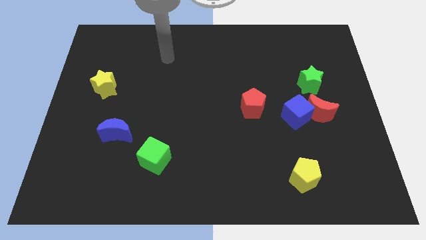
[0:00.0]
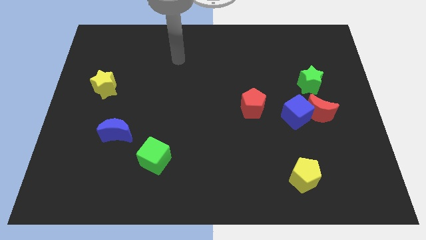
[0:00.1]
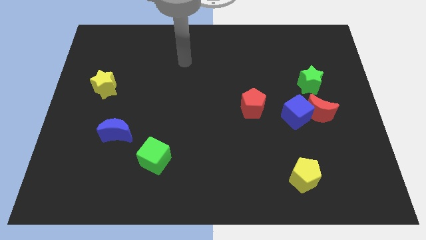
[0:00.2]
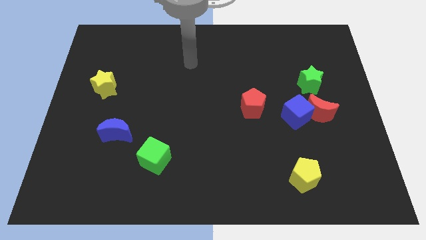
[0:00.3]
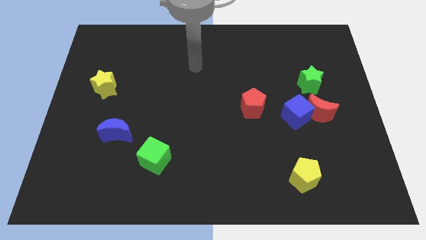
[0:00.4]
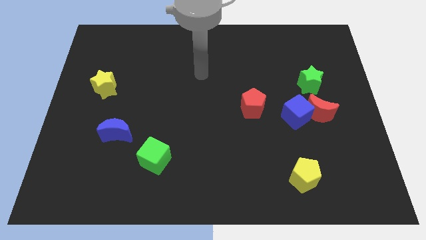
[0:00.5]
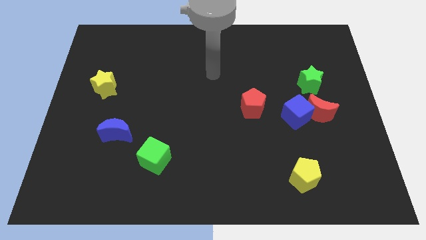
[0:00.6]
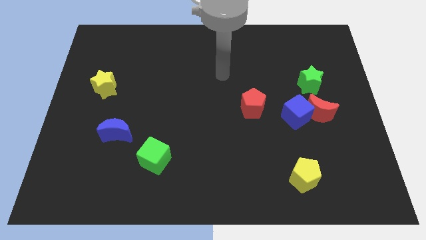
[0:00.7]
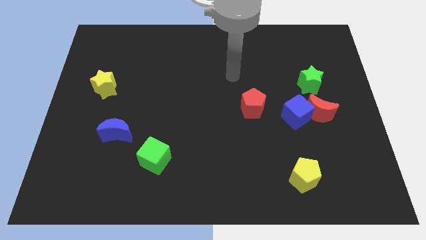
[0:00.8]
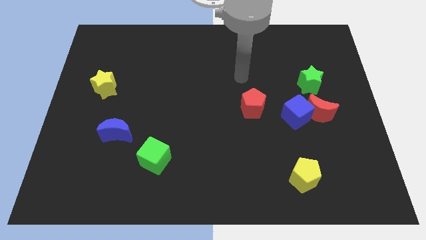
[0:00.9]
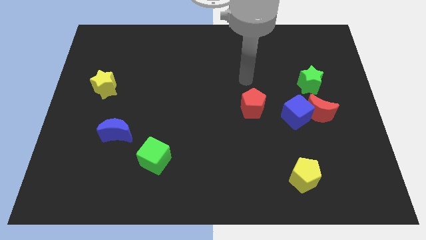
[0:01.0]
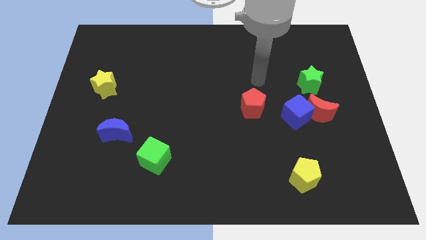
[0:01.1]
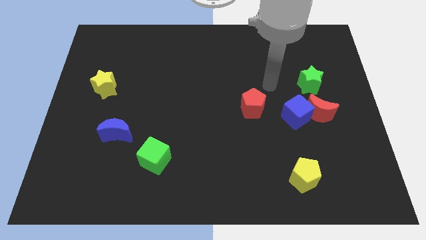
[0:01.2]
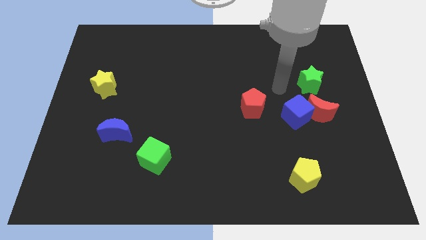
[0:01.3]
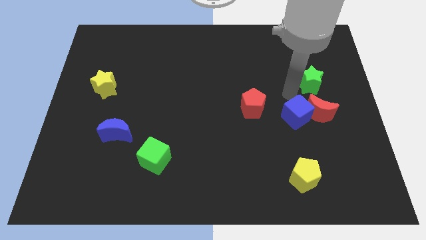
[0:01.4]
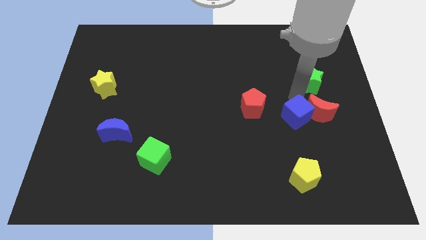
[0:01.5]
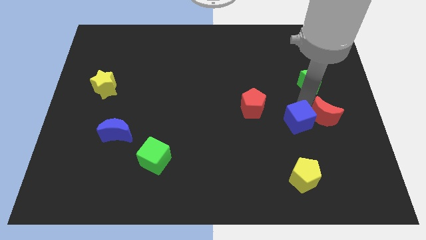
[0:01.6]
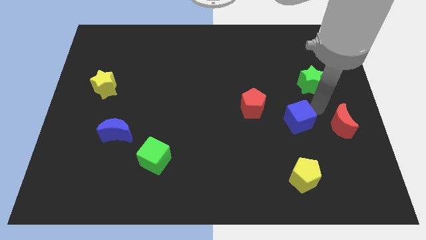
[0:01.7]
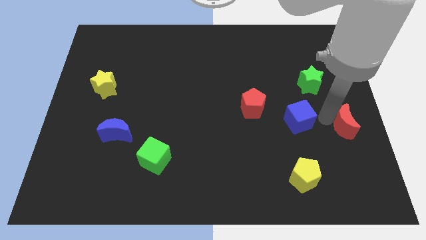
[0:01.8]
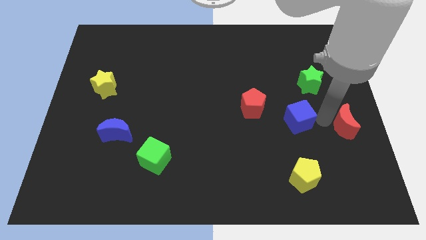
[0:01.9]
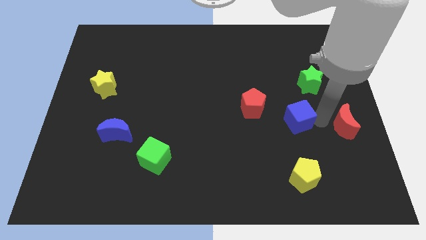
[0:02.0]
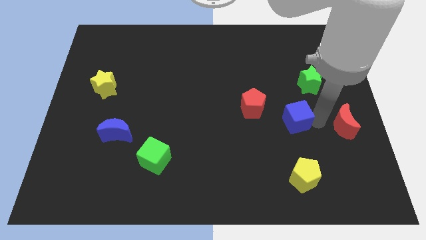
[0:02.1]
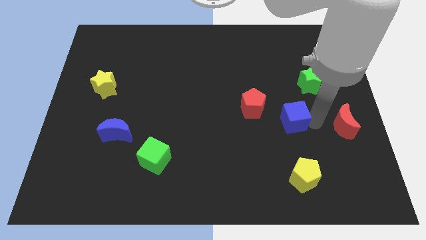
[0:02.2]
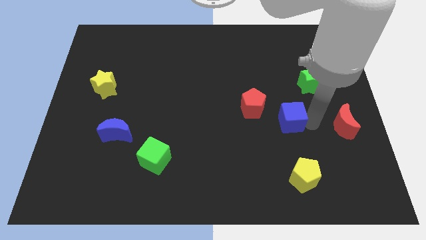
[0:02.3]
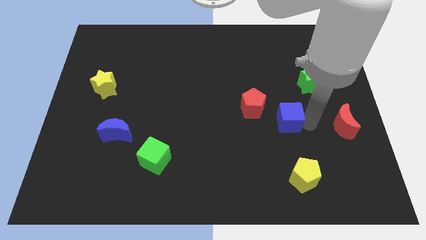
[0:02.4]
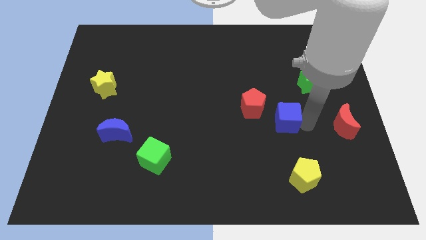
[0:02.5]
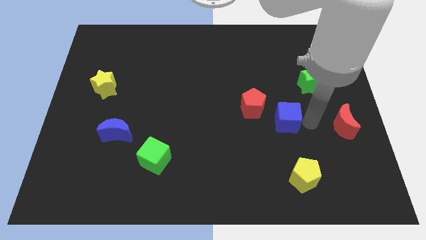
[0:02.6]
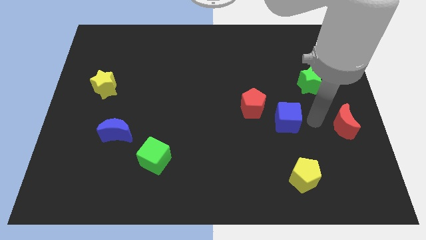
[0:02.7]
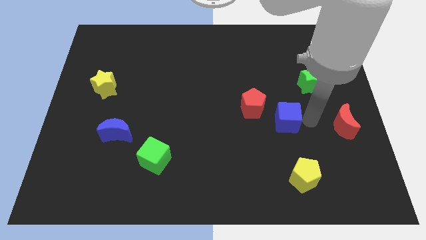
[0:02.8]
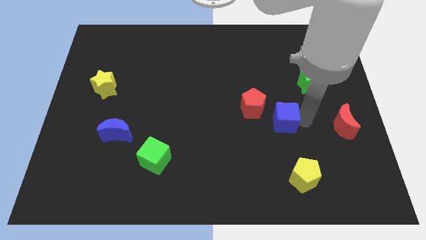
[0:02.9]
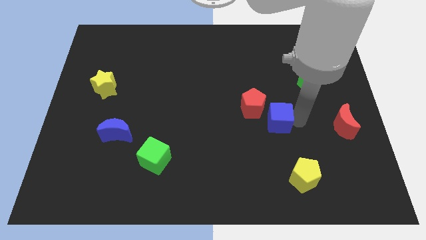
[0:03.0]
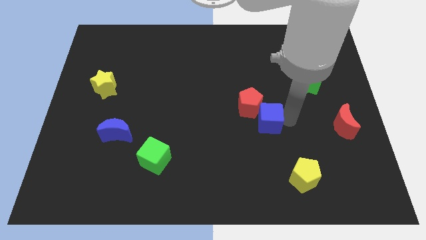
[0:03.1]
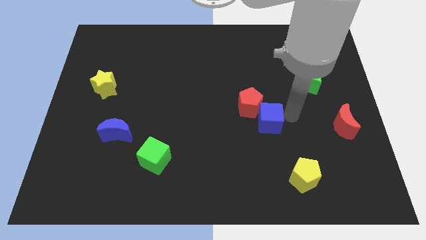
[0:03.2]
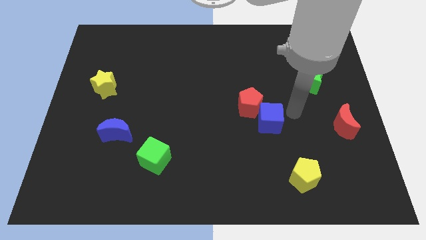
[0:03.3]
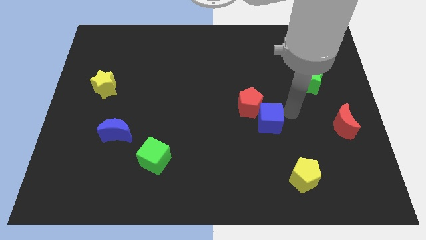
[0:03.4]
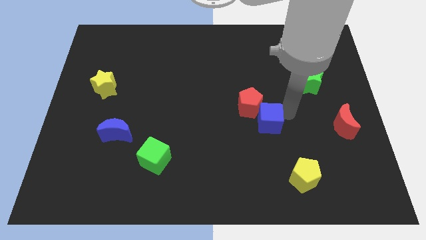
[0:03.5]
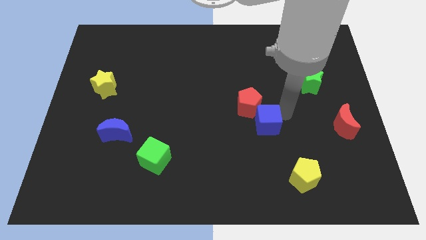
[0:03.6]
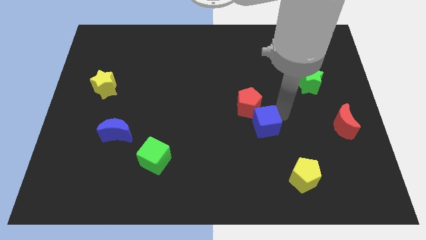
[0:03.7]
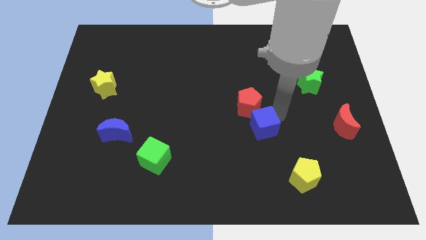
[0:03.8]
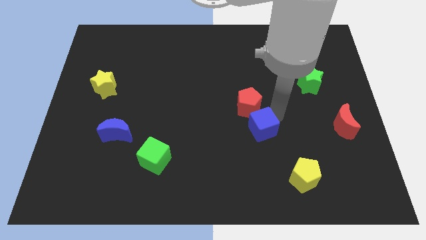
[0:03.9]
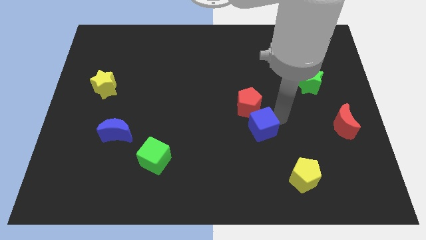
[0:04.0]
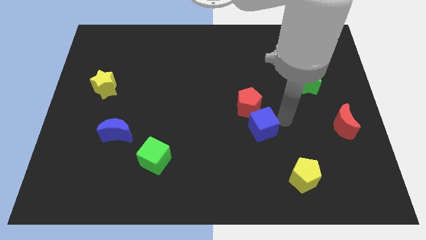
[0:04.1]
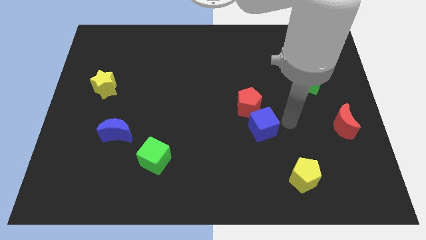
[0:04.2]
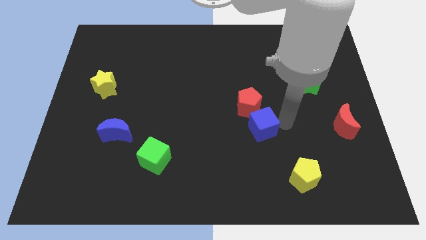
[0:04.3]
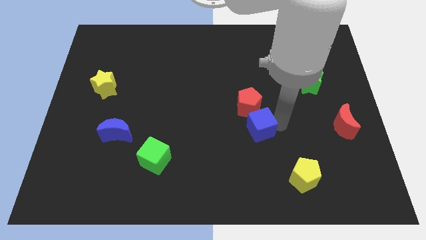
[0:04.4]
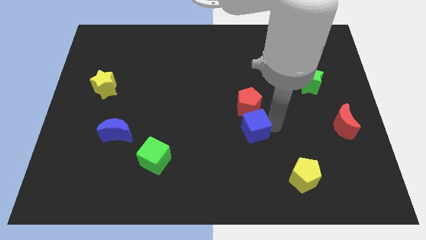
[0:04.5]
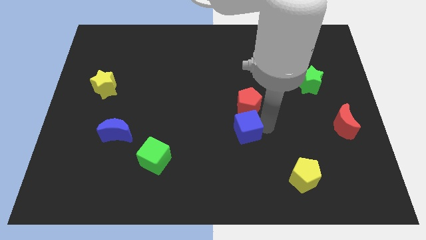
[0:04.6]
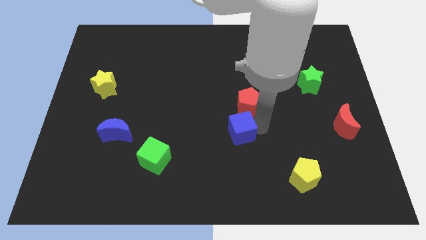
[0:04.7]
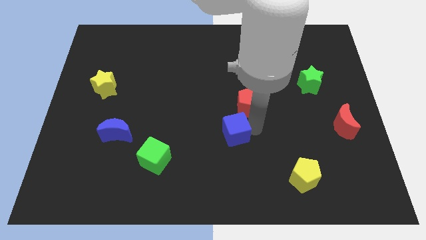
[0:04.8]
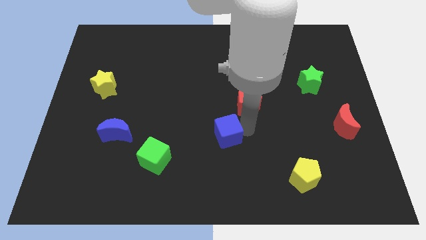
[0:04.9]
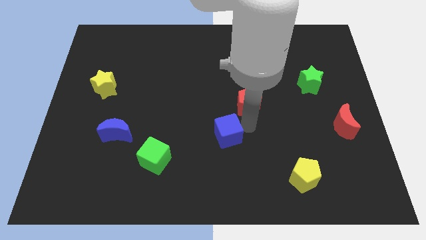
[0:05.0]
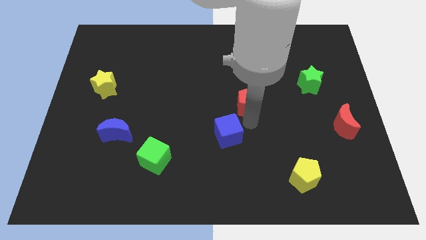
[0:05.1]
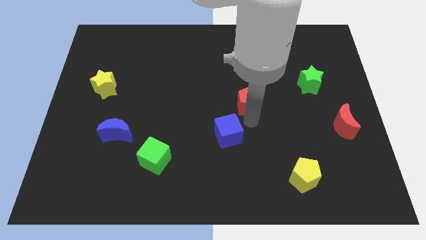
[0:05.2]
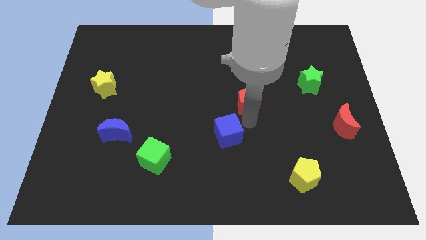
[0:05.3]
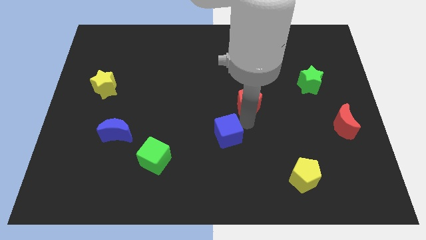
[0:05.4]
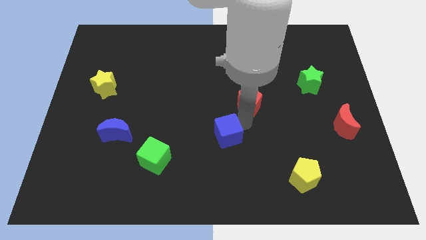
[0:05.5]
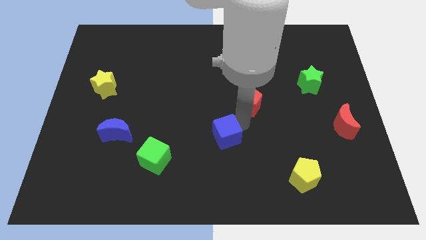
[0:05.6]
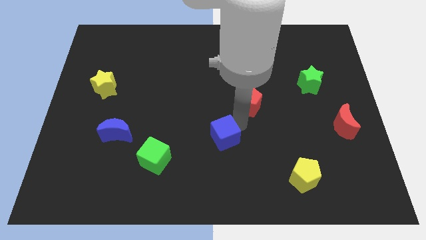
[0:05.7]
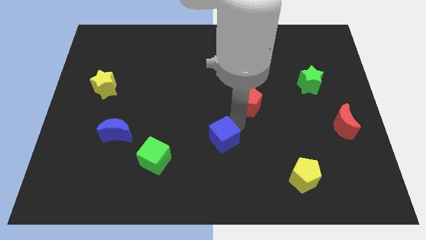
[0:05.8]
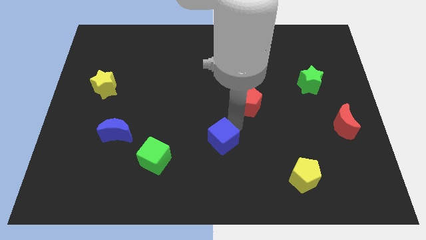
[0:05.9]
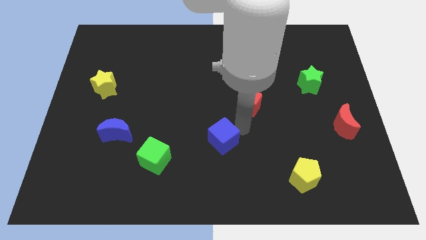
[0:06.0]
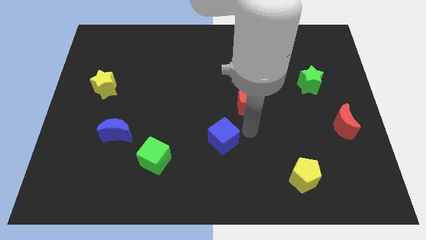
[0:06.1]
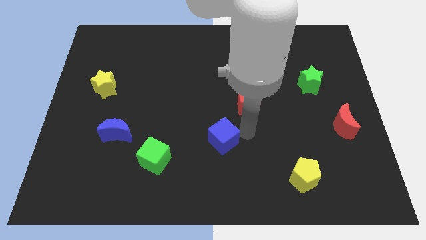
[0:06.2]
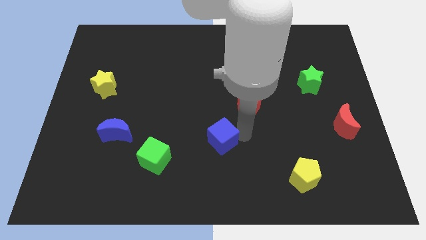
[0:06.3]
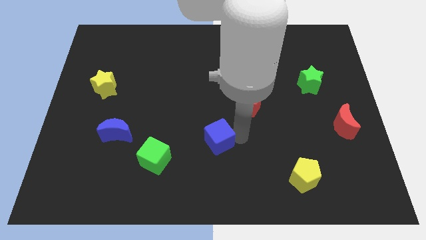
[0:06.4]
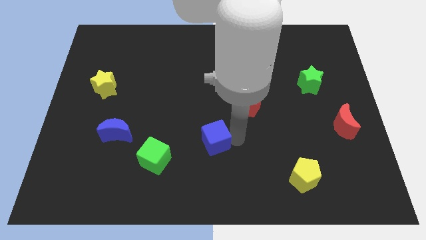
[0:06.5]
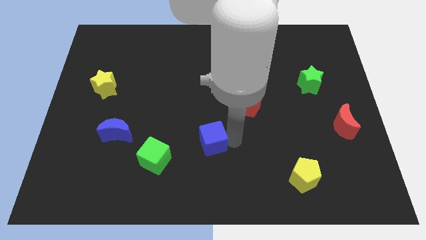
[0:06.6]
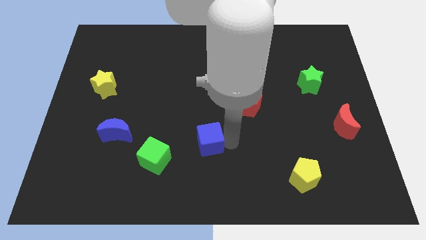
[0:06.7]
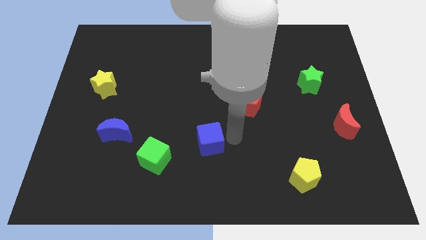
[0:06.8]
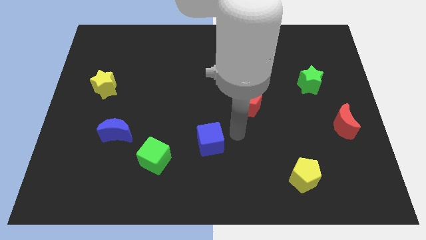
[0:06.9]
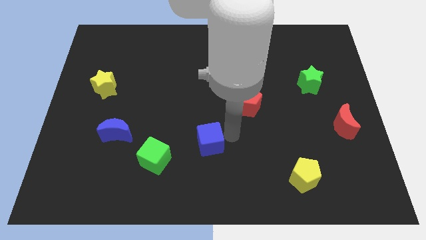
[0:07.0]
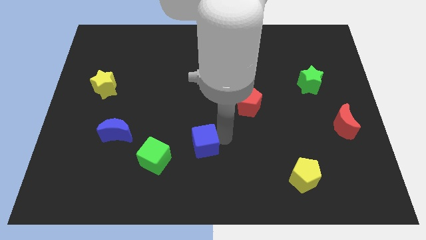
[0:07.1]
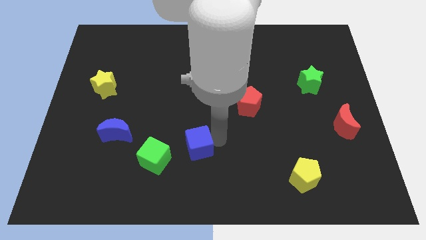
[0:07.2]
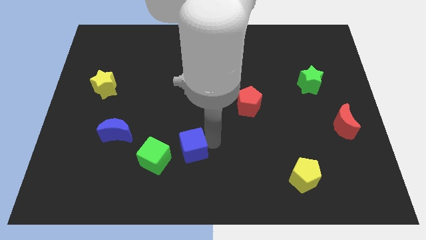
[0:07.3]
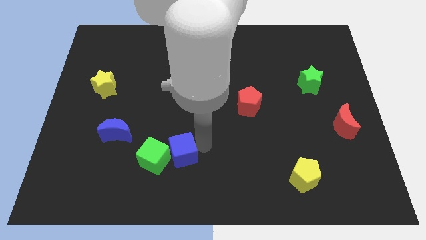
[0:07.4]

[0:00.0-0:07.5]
put the blue cube towards the green cube
